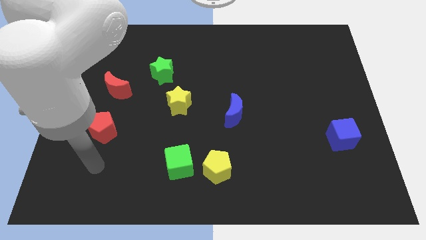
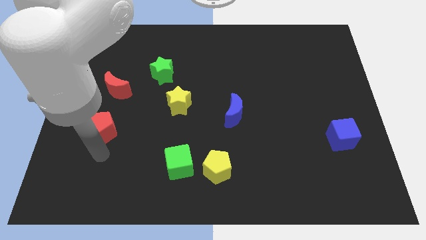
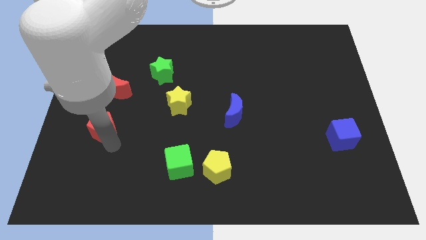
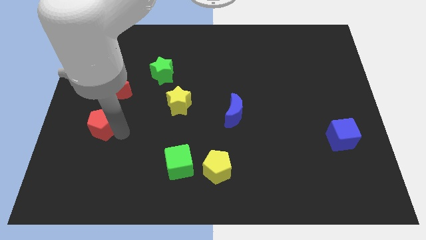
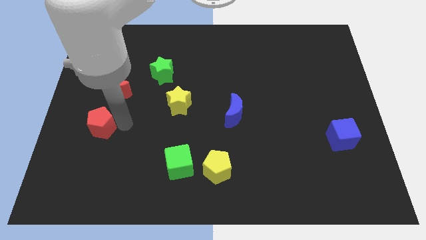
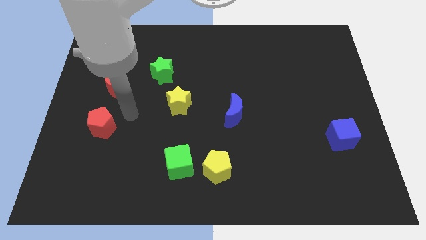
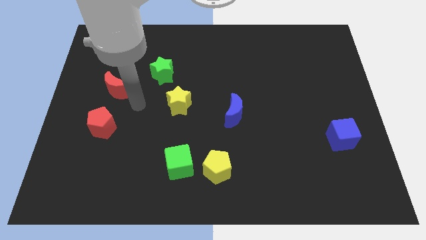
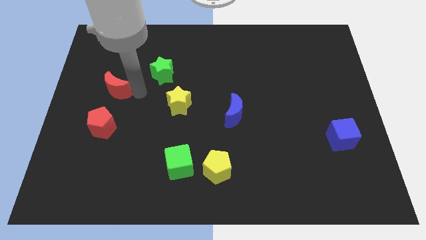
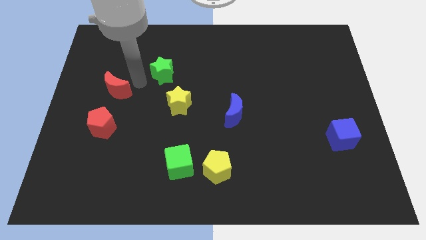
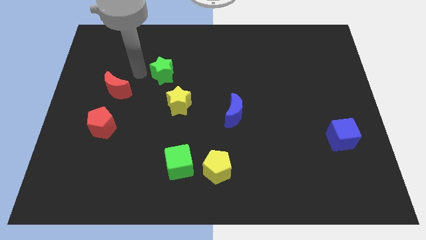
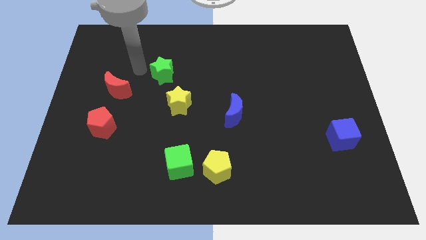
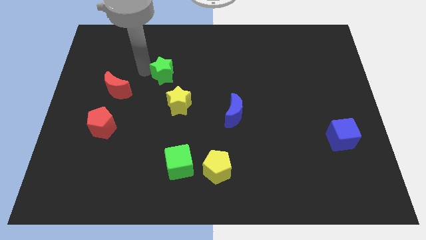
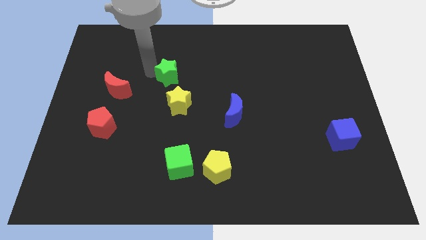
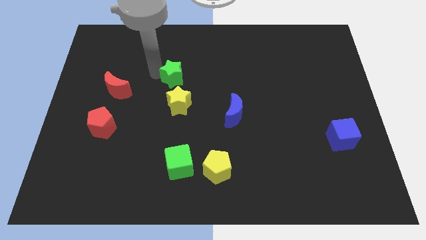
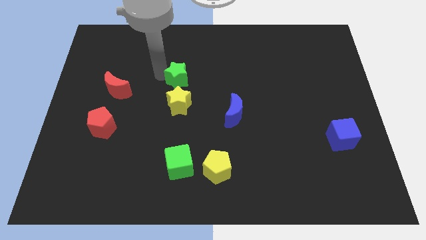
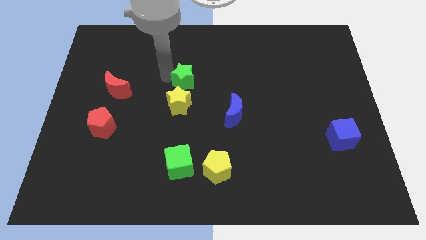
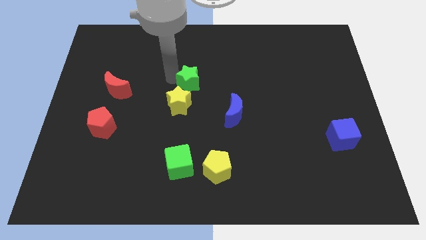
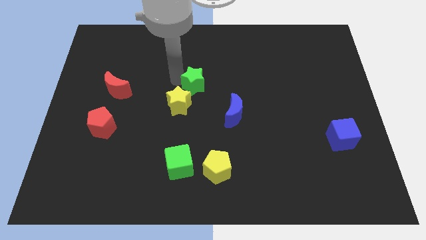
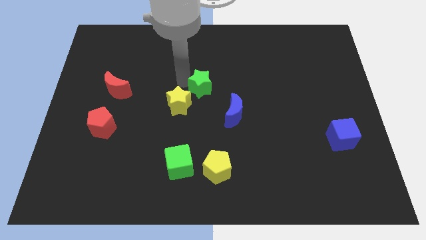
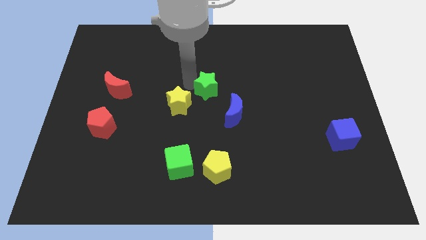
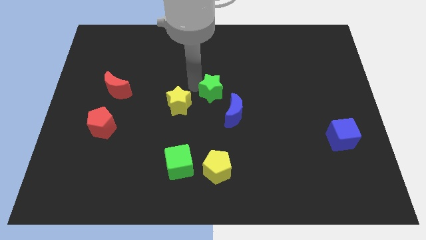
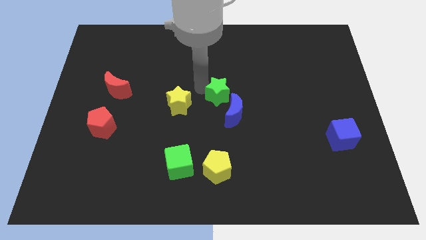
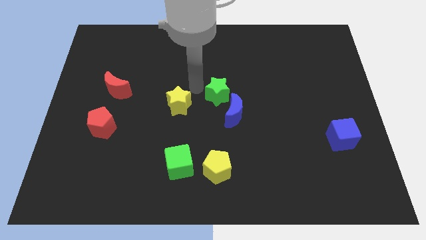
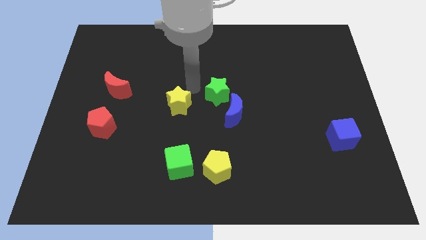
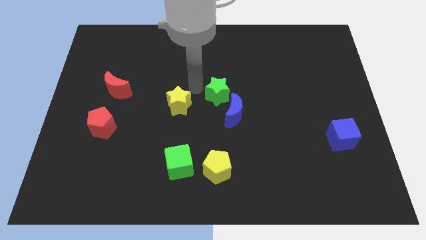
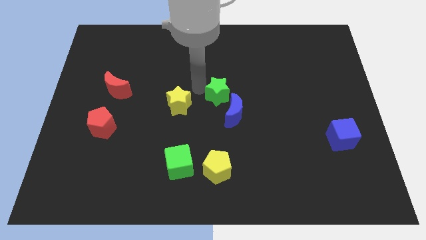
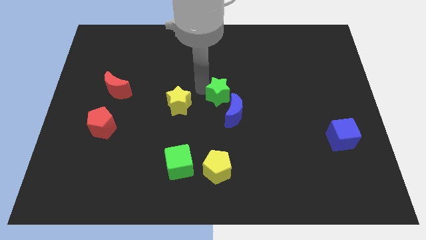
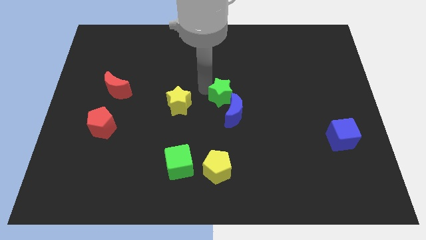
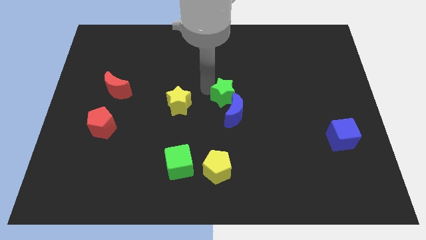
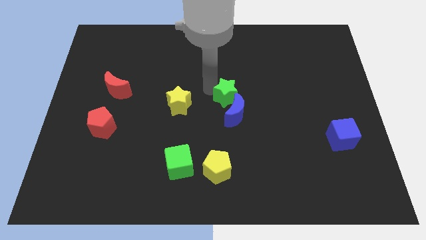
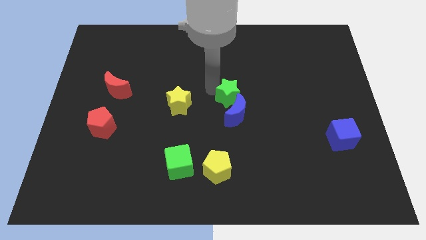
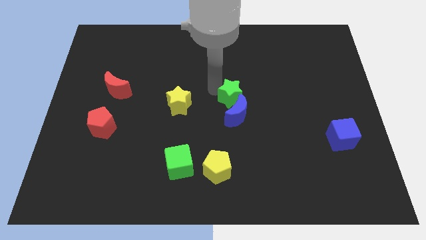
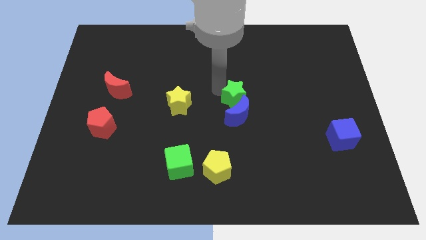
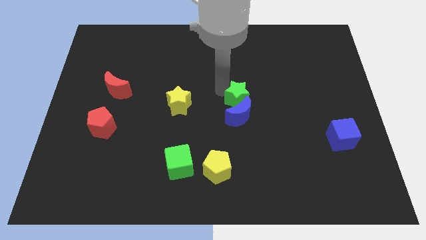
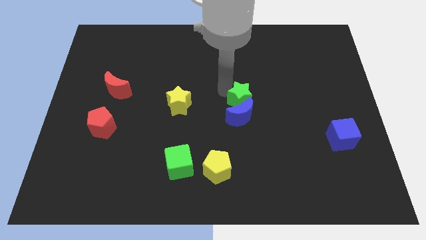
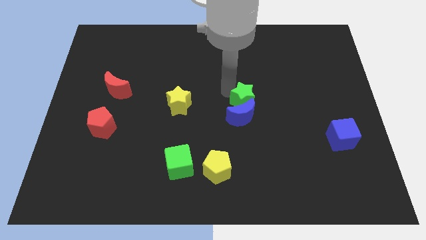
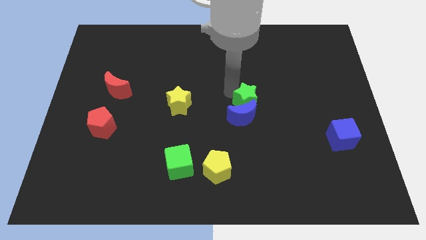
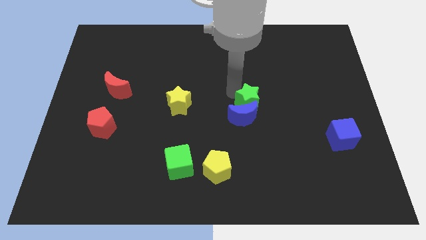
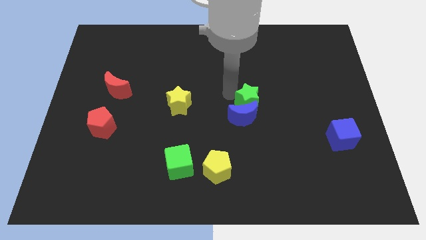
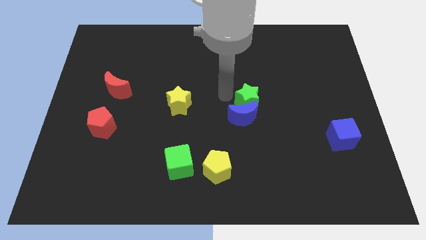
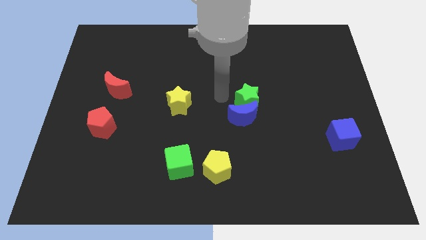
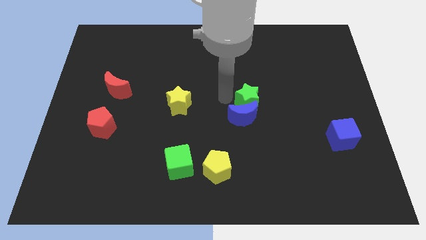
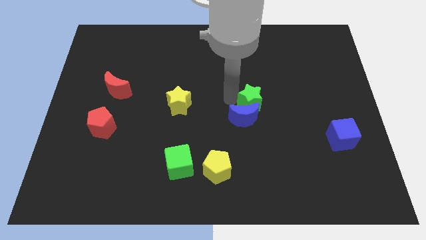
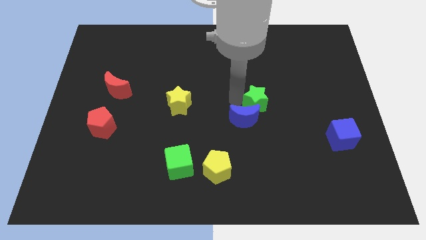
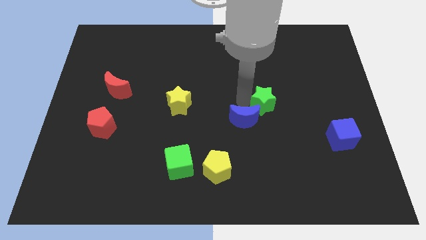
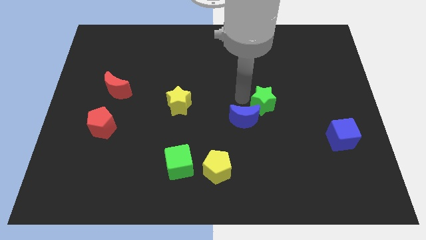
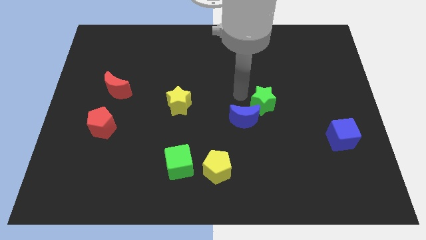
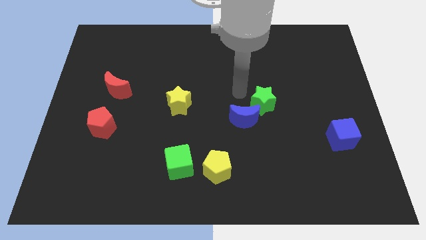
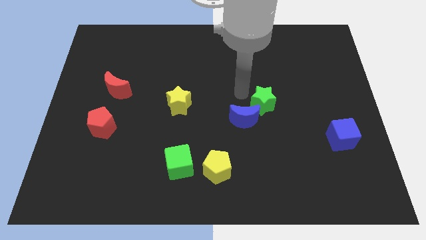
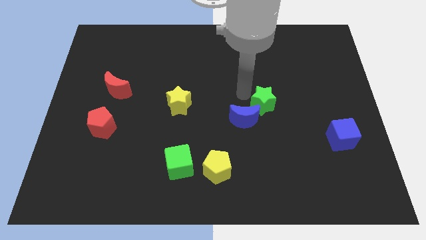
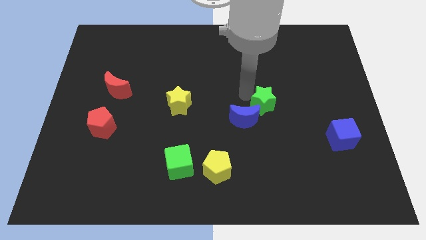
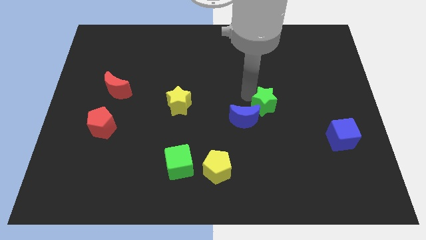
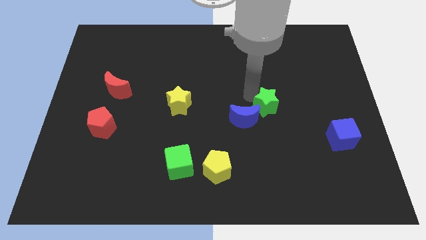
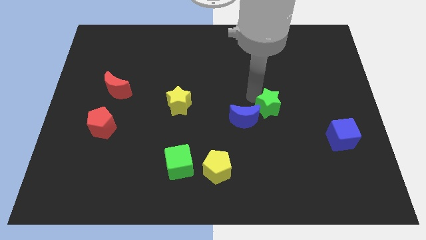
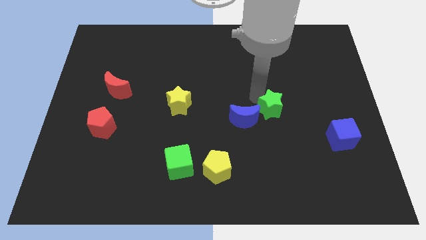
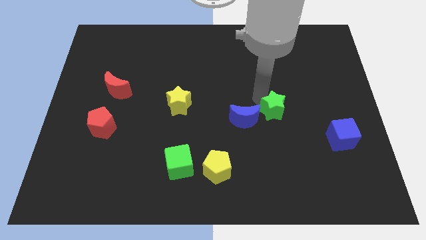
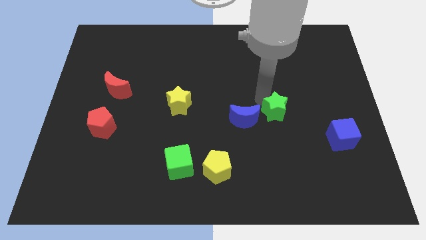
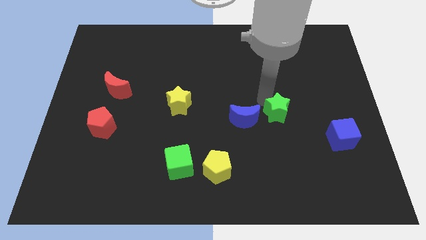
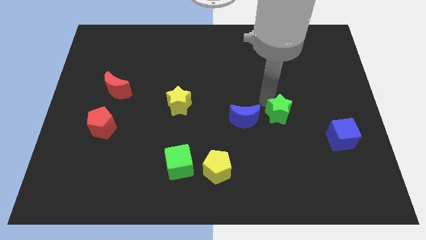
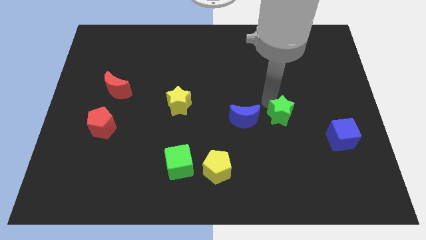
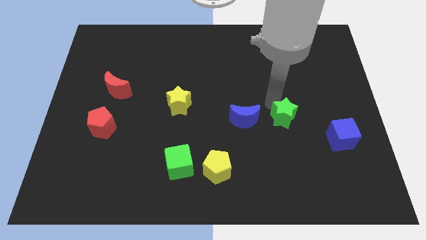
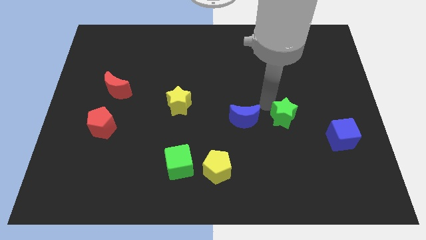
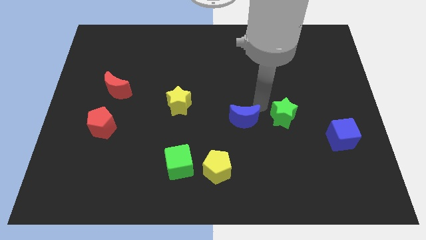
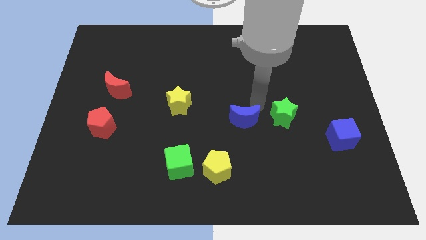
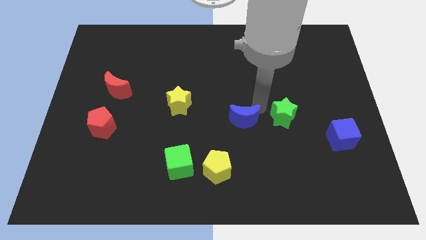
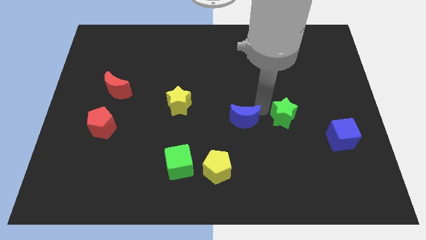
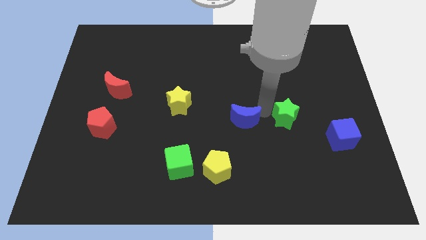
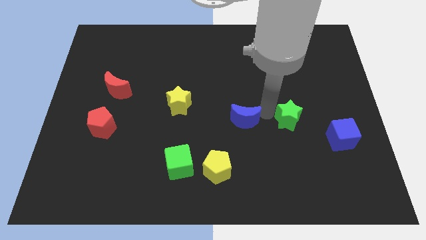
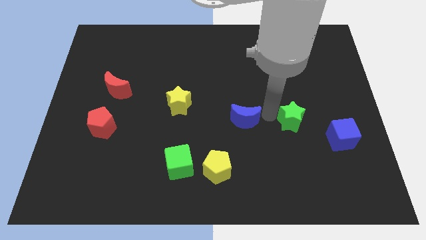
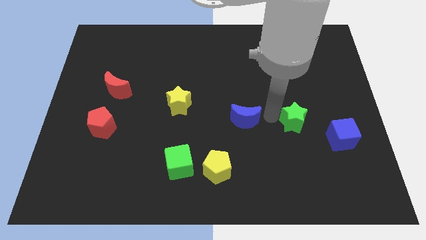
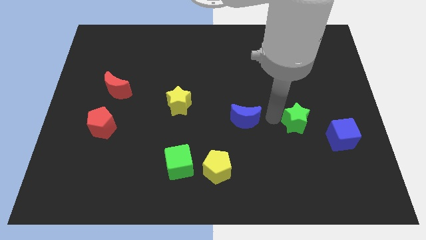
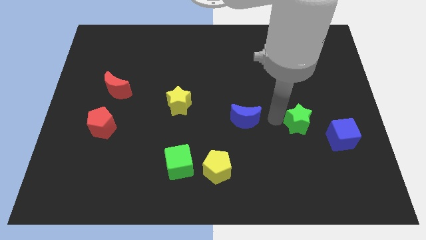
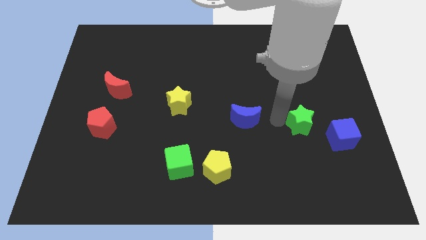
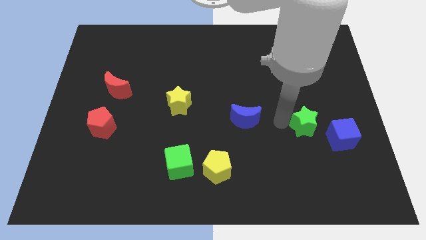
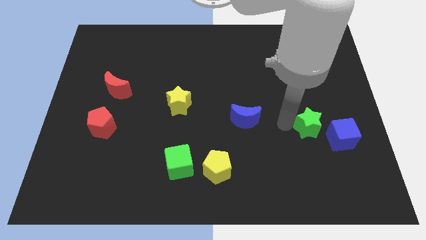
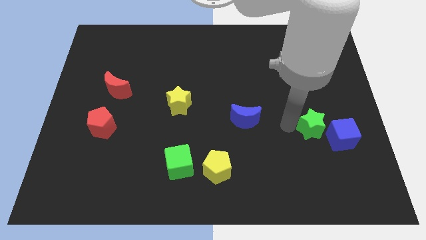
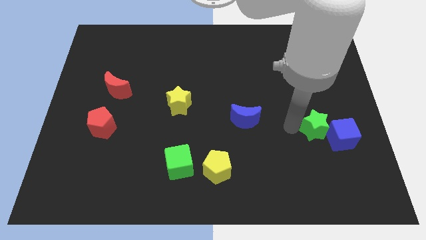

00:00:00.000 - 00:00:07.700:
push the green star close to the blue cube
